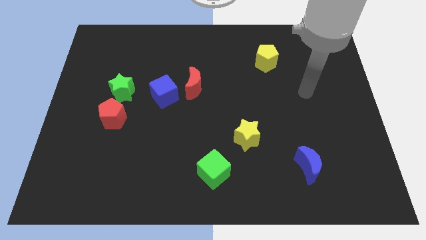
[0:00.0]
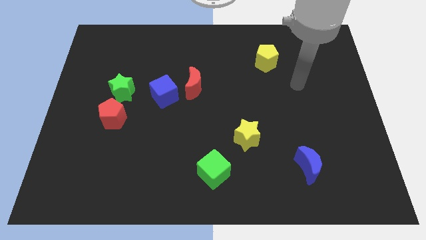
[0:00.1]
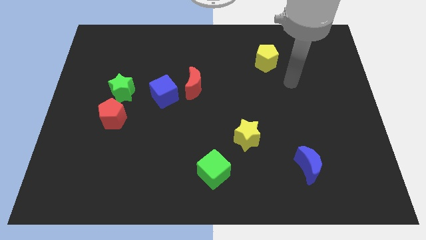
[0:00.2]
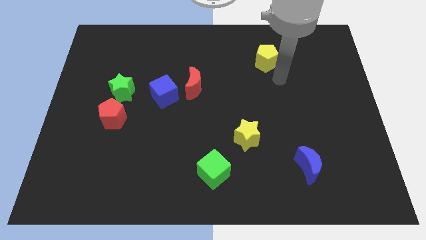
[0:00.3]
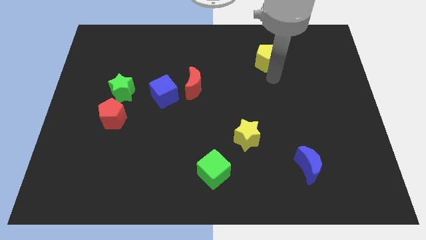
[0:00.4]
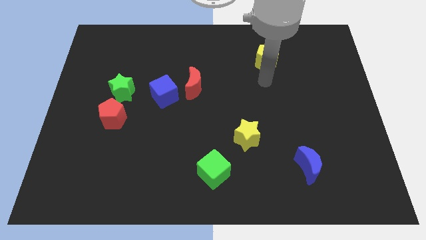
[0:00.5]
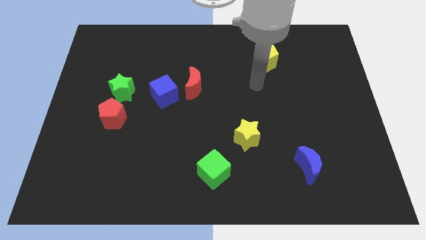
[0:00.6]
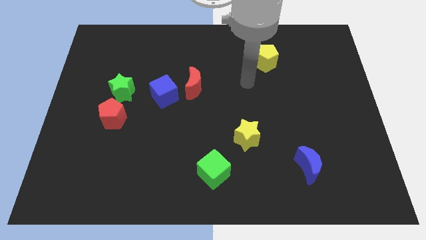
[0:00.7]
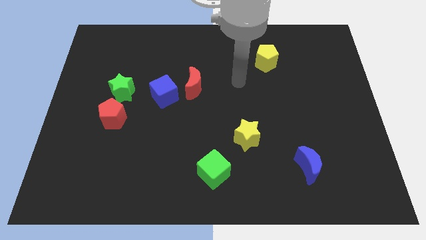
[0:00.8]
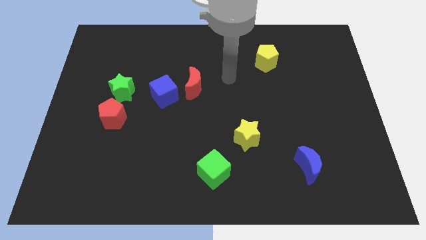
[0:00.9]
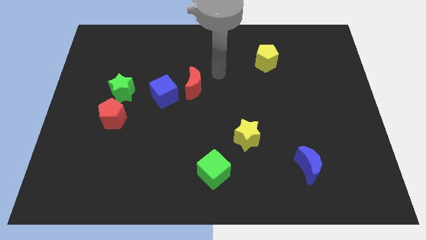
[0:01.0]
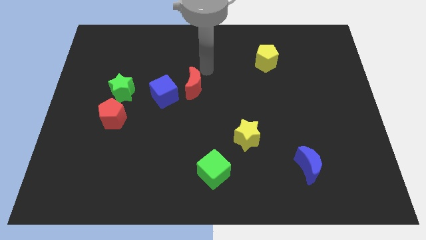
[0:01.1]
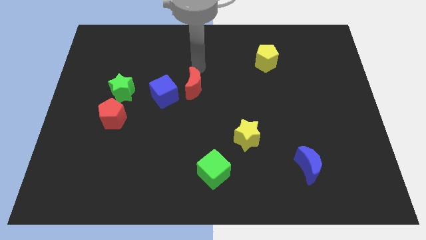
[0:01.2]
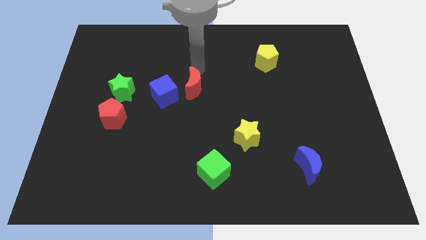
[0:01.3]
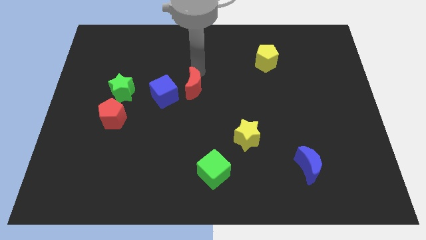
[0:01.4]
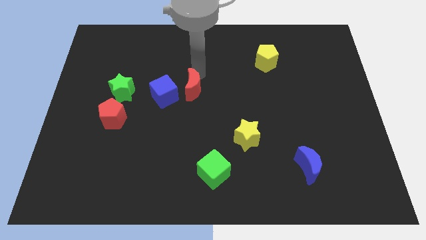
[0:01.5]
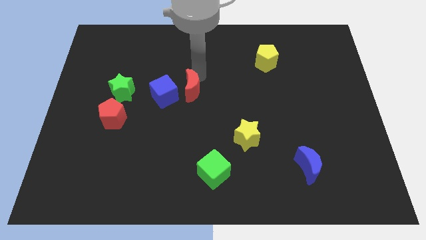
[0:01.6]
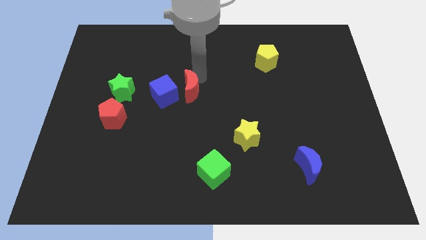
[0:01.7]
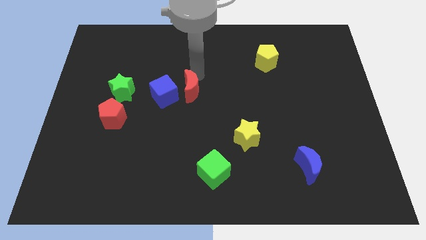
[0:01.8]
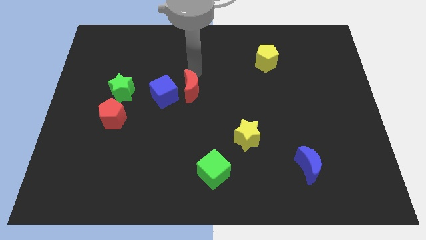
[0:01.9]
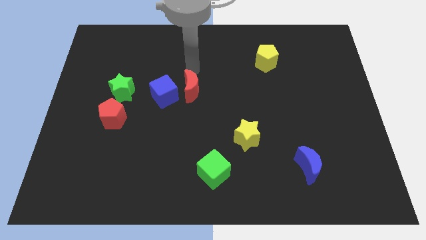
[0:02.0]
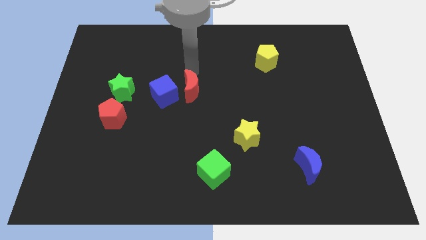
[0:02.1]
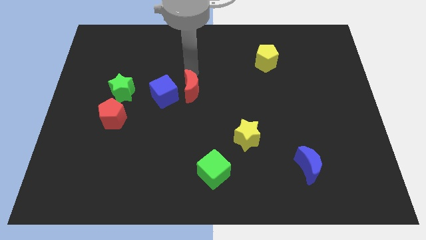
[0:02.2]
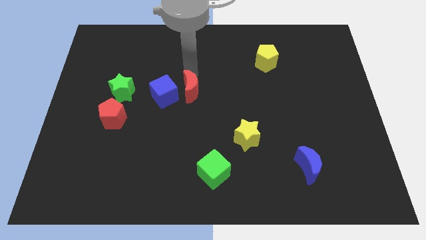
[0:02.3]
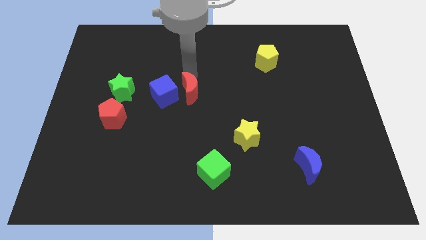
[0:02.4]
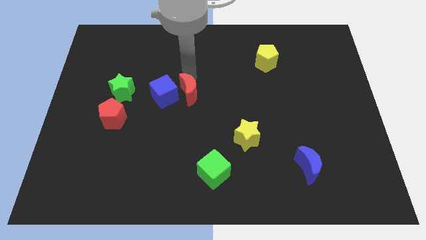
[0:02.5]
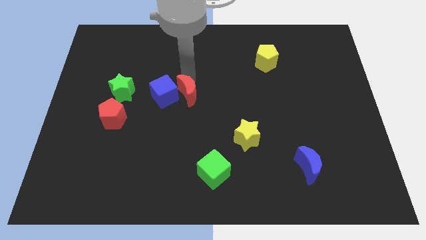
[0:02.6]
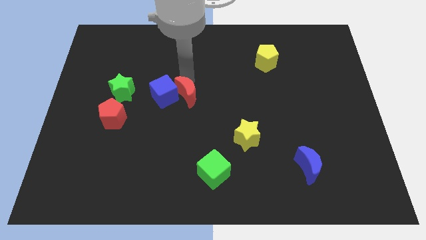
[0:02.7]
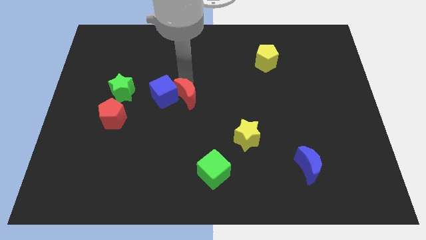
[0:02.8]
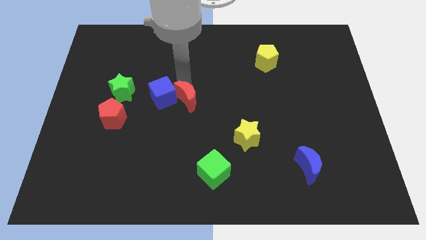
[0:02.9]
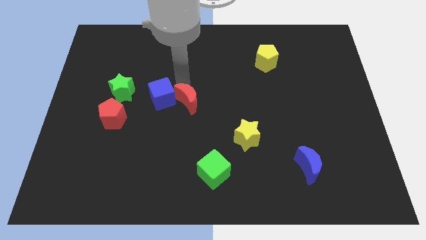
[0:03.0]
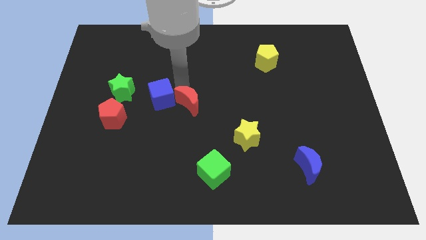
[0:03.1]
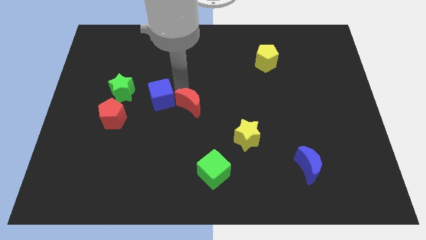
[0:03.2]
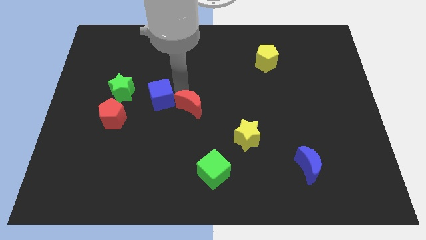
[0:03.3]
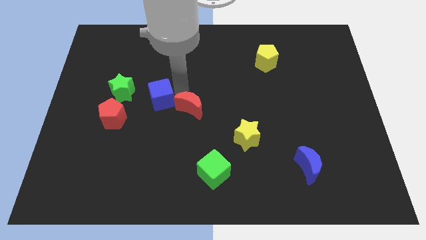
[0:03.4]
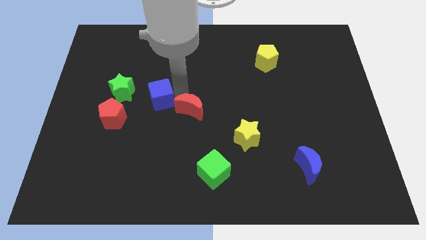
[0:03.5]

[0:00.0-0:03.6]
move the red moon a little down

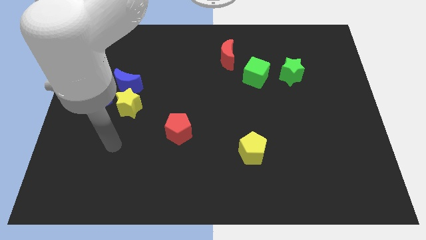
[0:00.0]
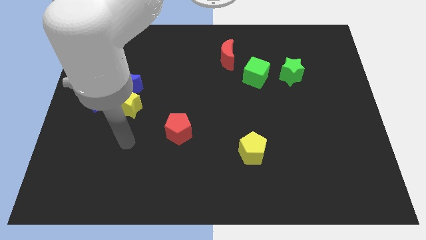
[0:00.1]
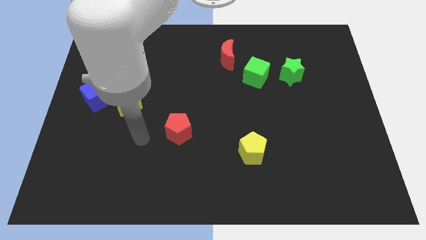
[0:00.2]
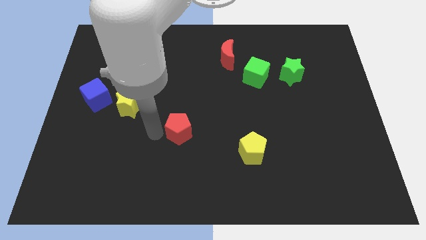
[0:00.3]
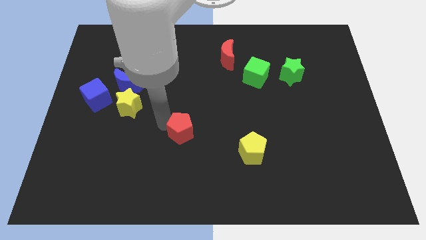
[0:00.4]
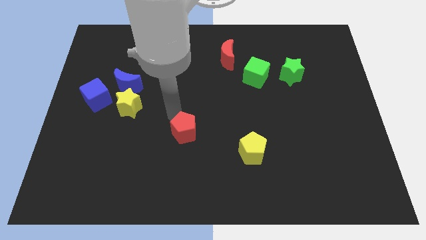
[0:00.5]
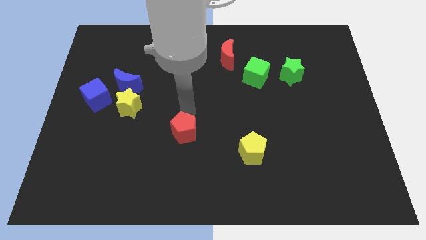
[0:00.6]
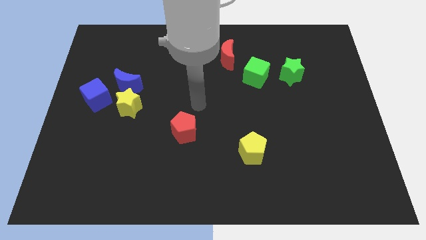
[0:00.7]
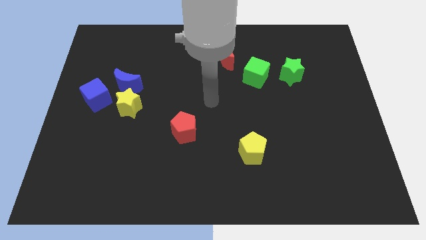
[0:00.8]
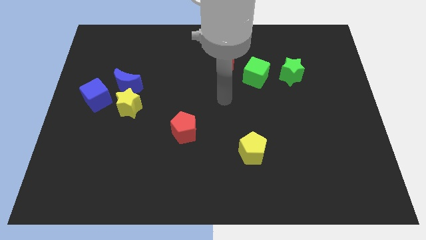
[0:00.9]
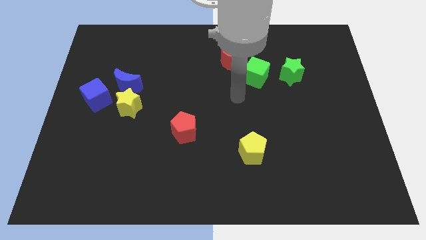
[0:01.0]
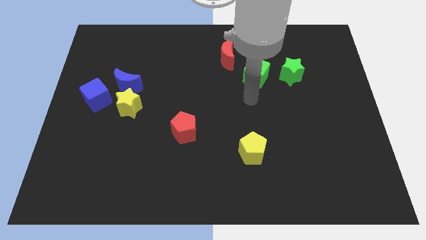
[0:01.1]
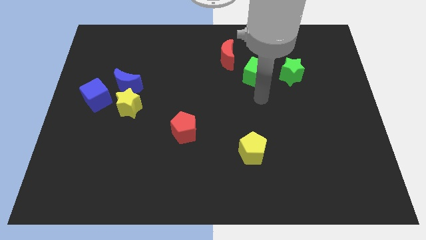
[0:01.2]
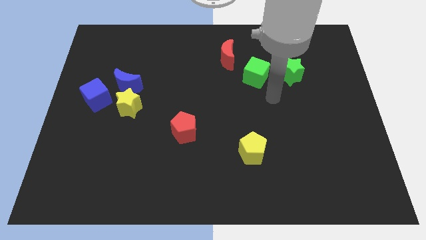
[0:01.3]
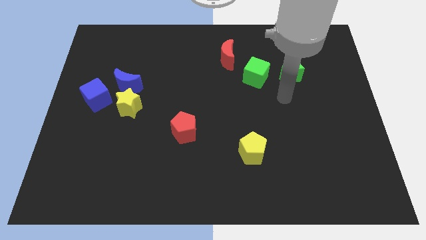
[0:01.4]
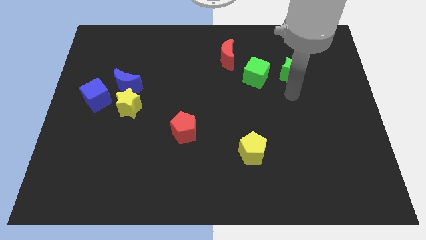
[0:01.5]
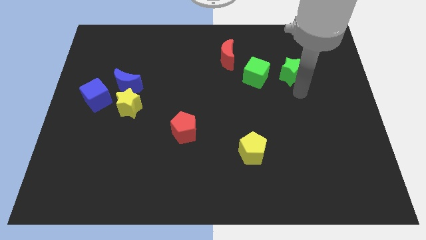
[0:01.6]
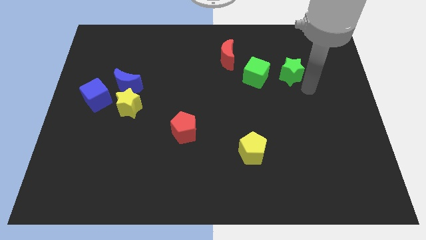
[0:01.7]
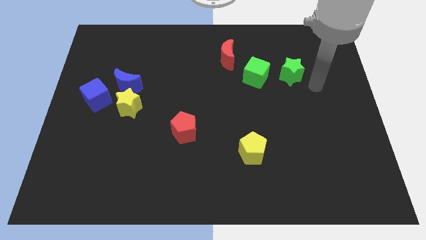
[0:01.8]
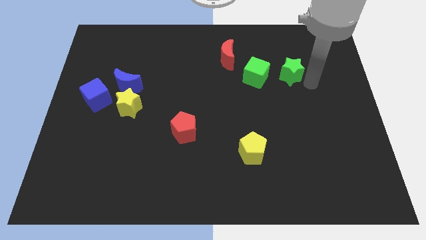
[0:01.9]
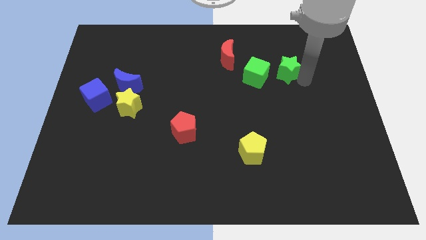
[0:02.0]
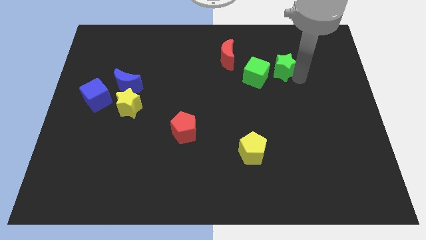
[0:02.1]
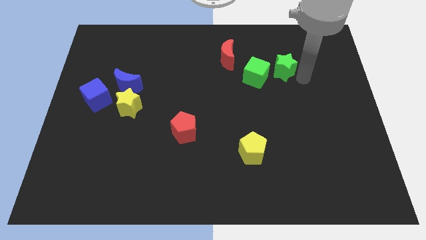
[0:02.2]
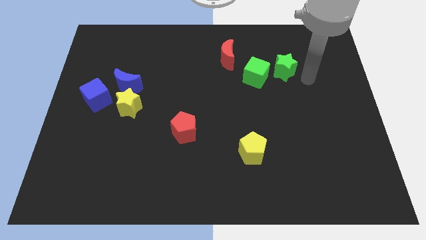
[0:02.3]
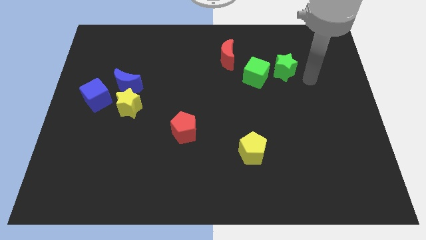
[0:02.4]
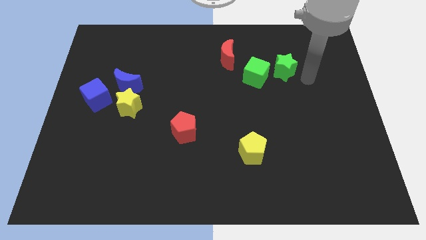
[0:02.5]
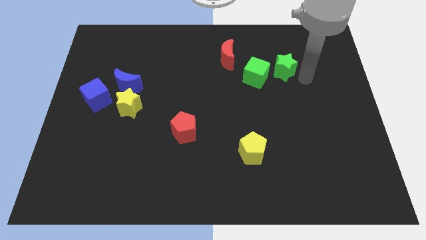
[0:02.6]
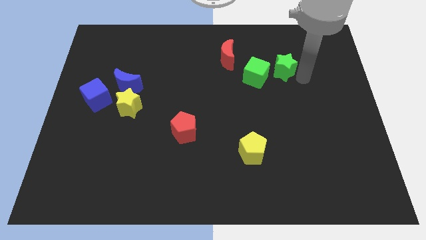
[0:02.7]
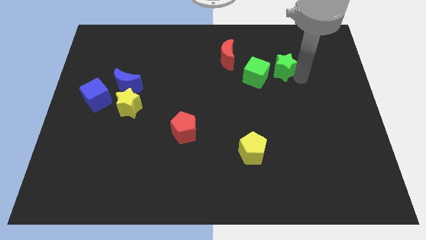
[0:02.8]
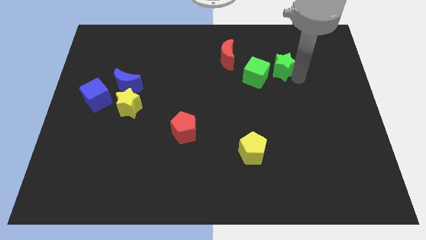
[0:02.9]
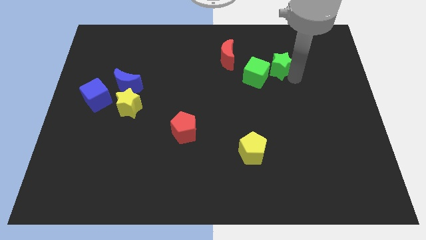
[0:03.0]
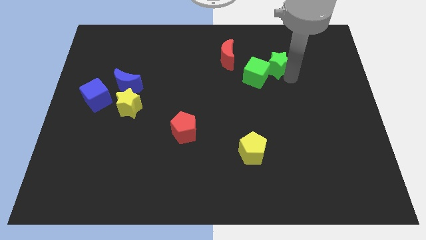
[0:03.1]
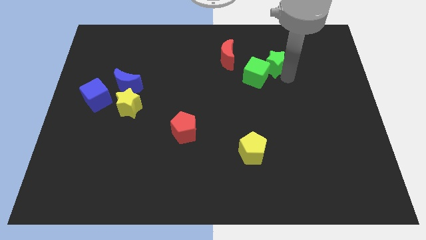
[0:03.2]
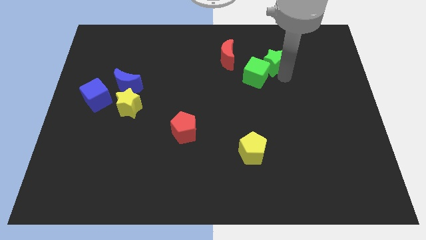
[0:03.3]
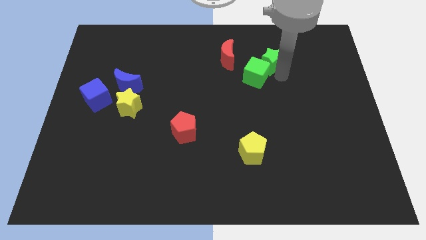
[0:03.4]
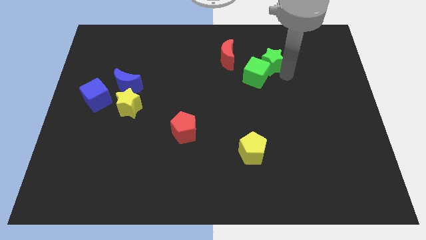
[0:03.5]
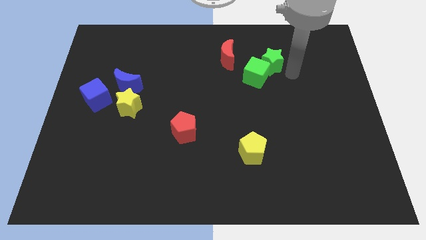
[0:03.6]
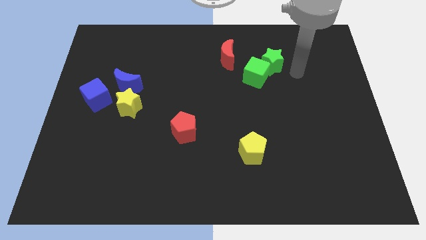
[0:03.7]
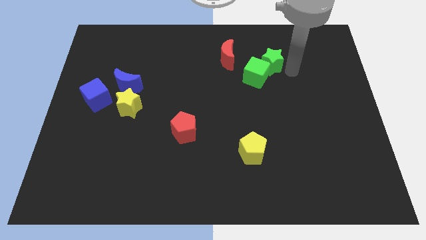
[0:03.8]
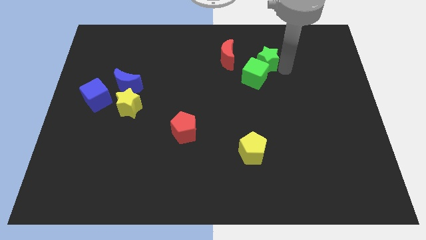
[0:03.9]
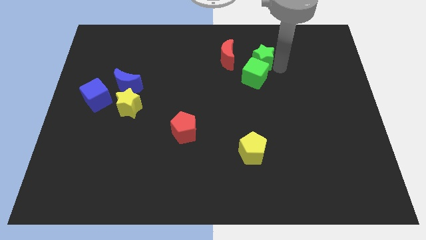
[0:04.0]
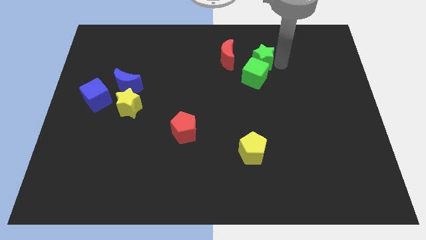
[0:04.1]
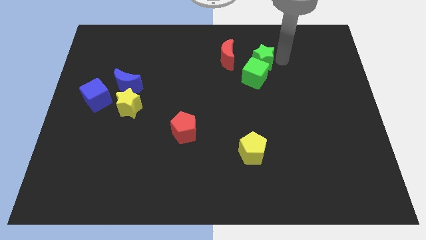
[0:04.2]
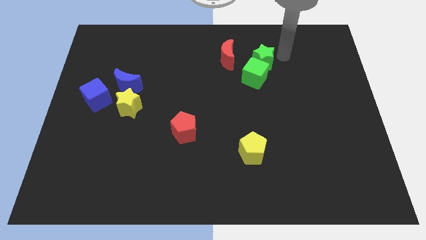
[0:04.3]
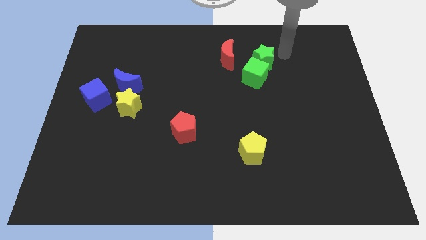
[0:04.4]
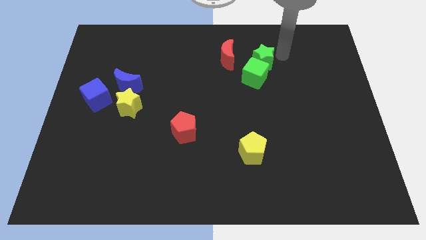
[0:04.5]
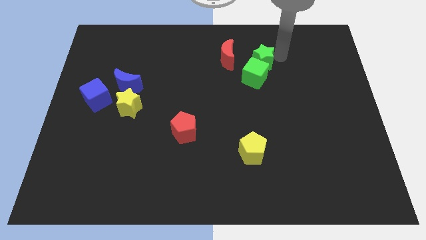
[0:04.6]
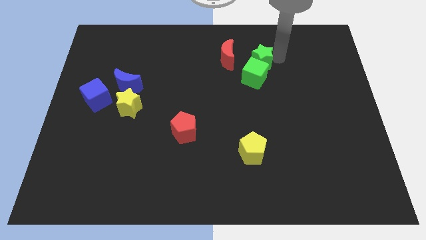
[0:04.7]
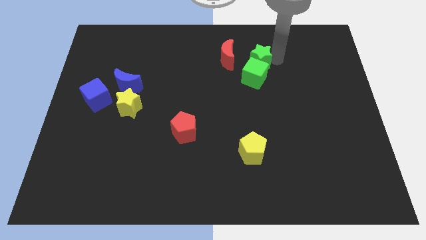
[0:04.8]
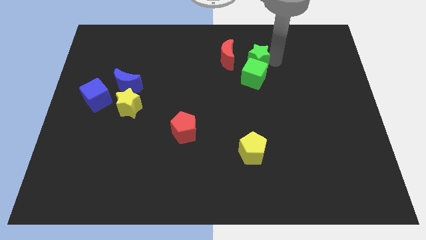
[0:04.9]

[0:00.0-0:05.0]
slightly push the green star to the left
